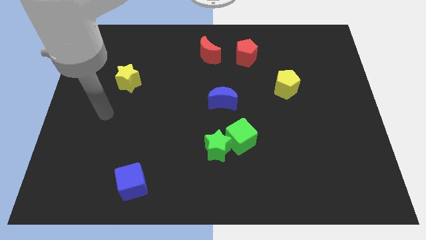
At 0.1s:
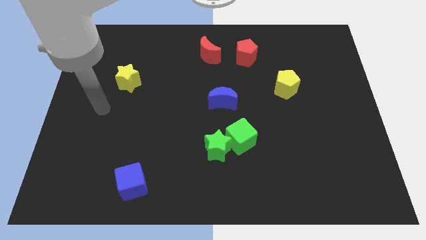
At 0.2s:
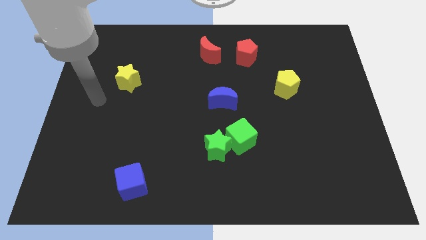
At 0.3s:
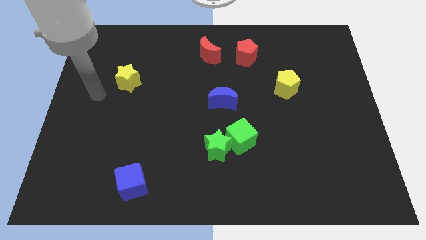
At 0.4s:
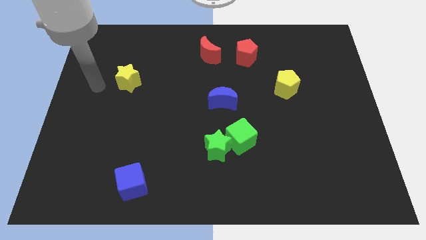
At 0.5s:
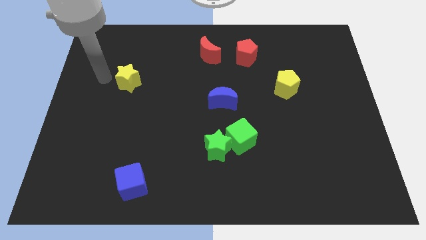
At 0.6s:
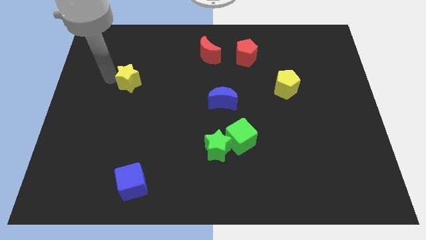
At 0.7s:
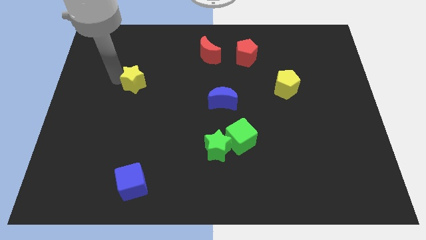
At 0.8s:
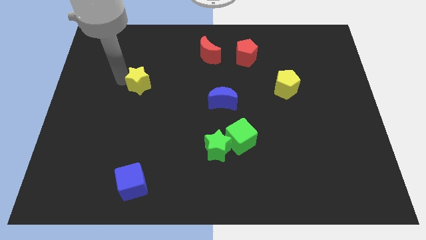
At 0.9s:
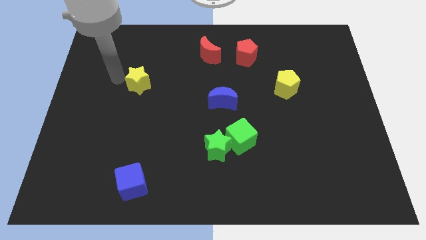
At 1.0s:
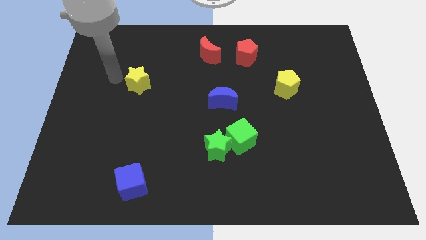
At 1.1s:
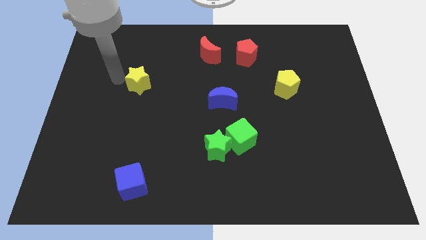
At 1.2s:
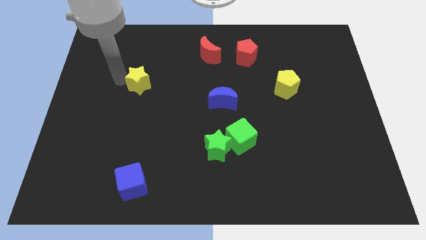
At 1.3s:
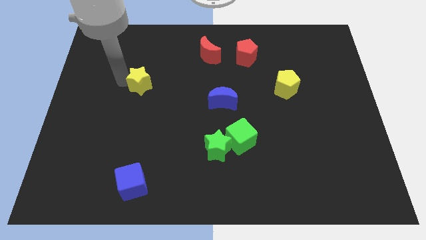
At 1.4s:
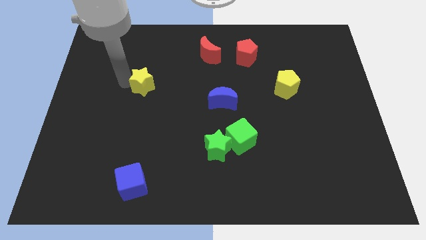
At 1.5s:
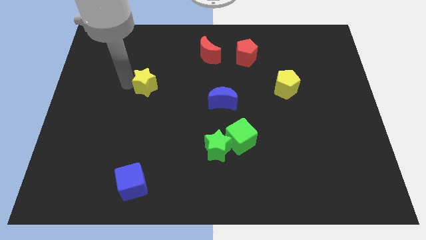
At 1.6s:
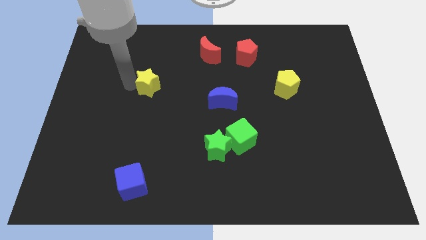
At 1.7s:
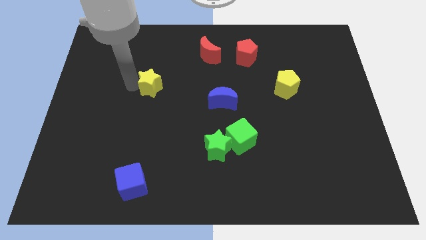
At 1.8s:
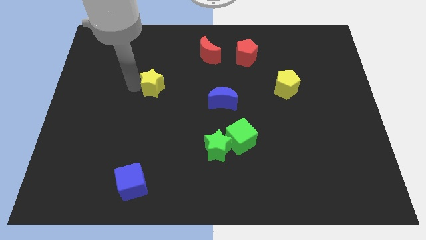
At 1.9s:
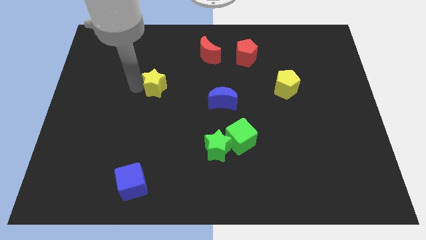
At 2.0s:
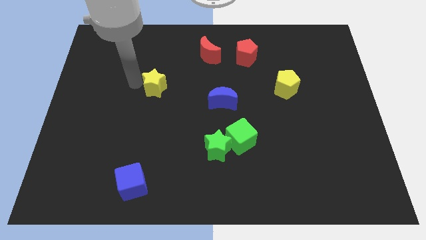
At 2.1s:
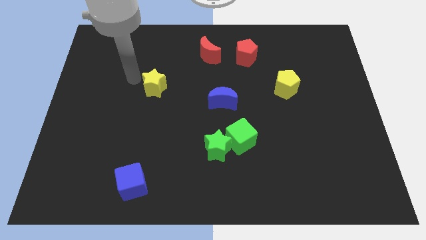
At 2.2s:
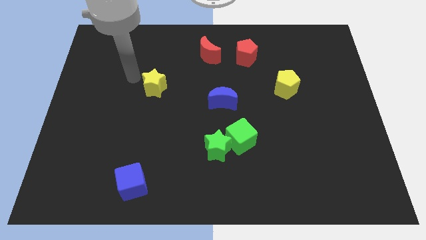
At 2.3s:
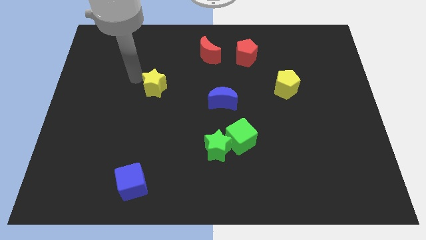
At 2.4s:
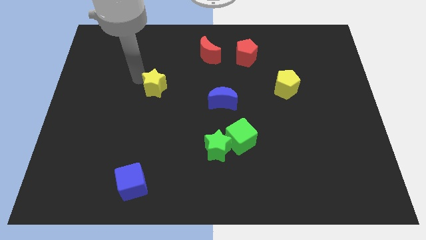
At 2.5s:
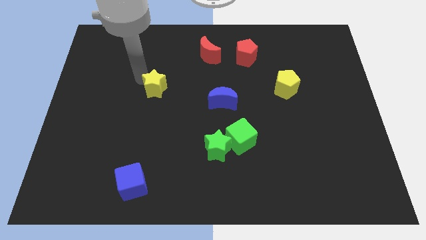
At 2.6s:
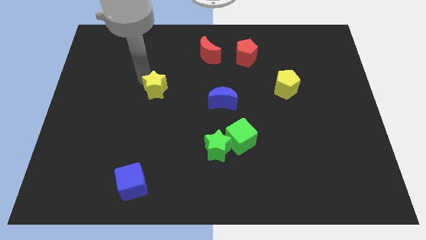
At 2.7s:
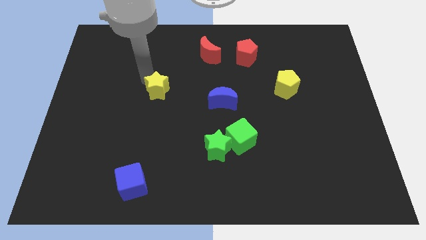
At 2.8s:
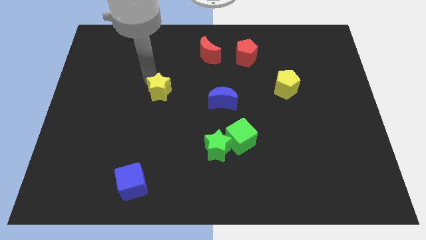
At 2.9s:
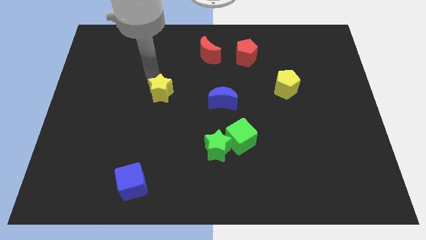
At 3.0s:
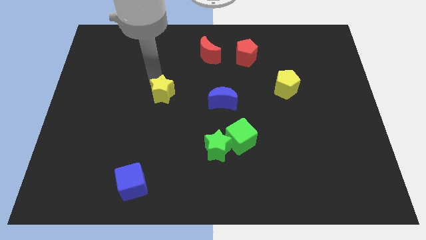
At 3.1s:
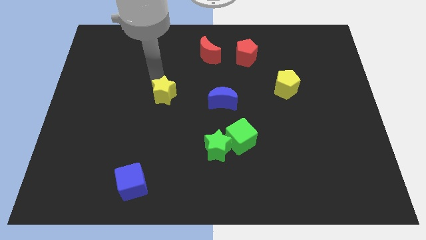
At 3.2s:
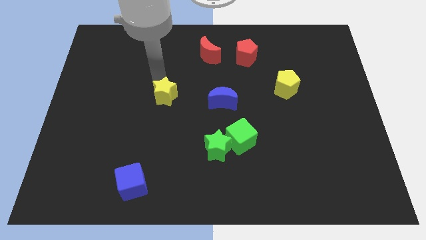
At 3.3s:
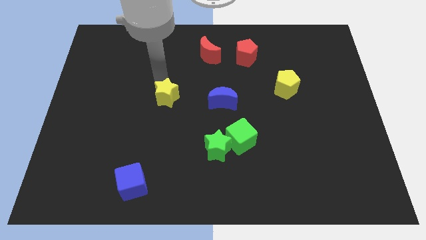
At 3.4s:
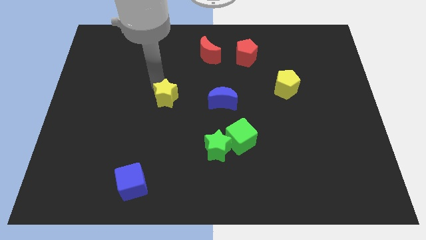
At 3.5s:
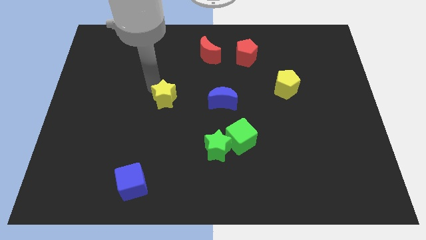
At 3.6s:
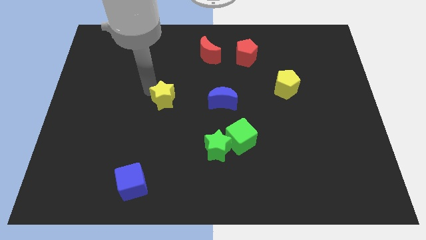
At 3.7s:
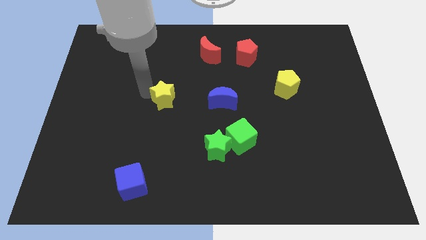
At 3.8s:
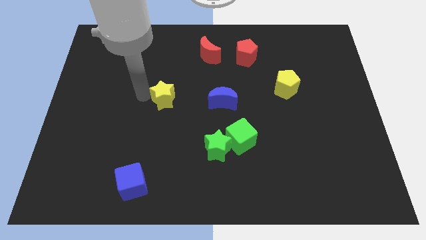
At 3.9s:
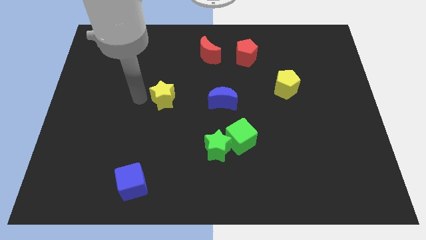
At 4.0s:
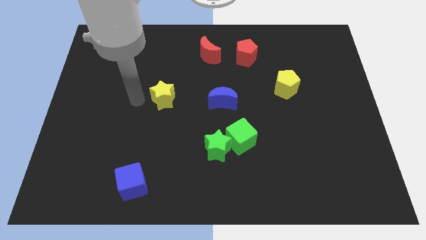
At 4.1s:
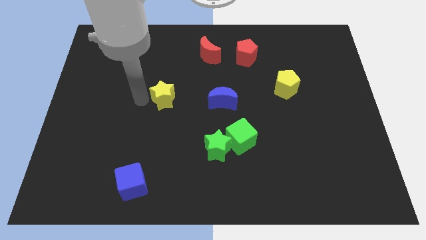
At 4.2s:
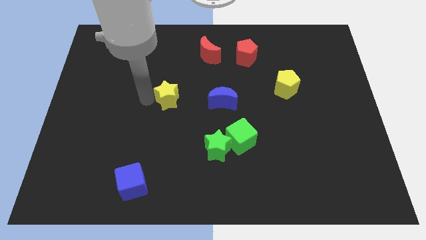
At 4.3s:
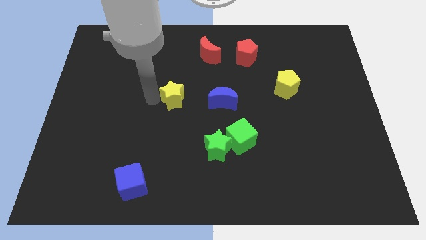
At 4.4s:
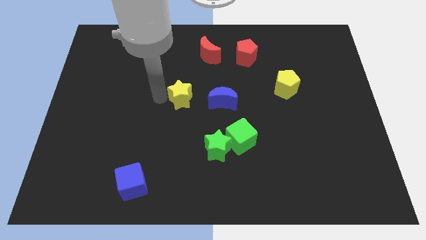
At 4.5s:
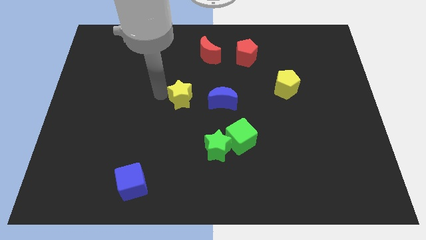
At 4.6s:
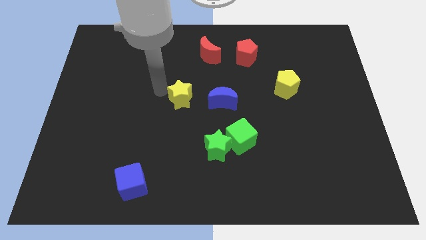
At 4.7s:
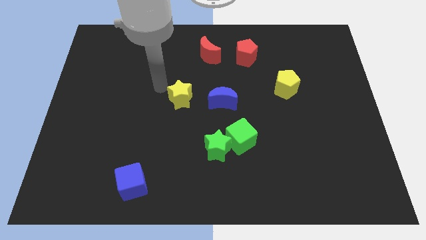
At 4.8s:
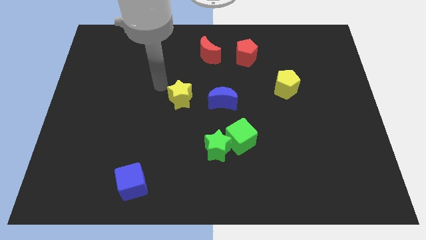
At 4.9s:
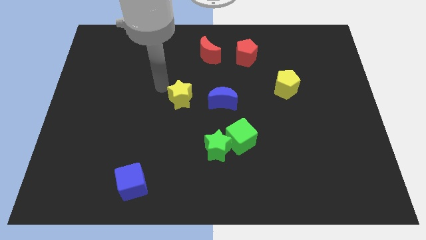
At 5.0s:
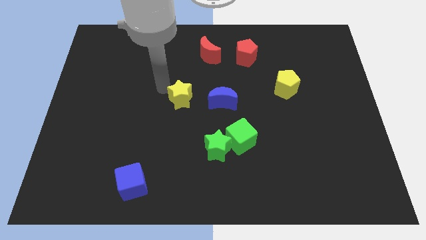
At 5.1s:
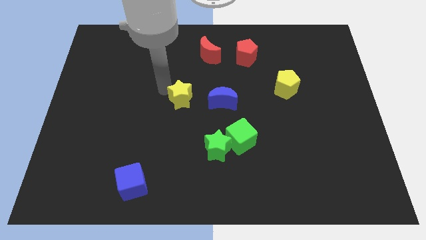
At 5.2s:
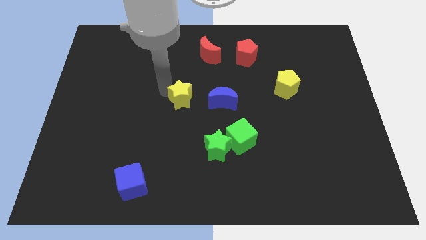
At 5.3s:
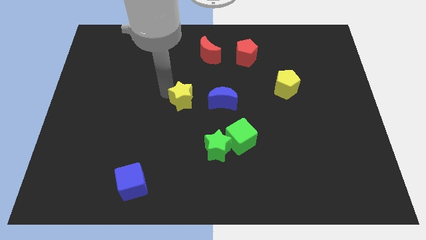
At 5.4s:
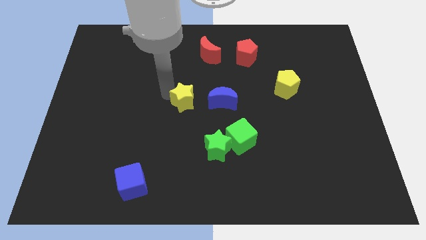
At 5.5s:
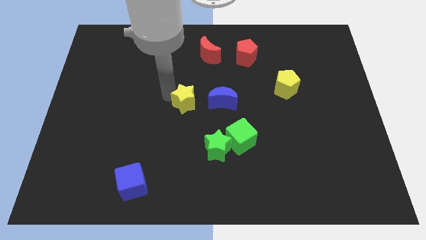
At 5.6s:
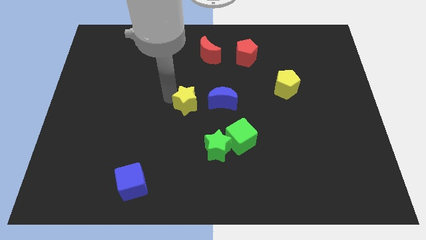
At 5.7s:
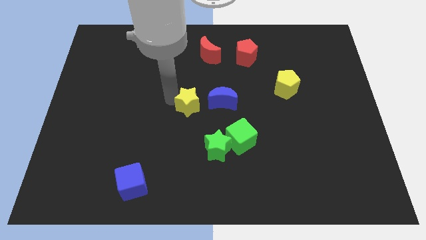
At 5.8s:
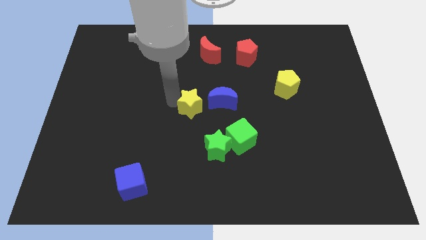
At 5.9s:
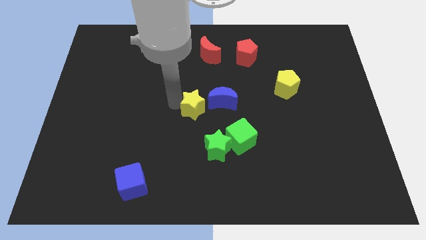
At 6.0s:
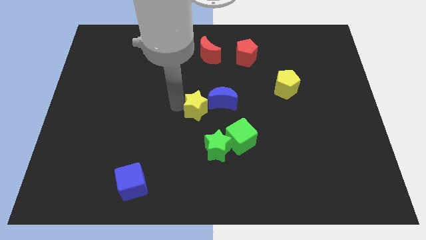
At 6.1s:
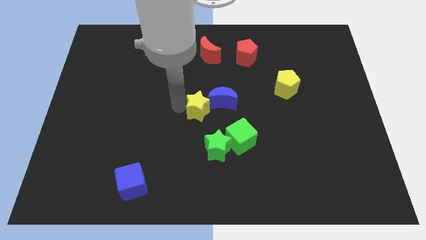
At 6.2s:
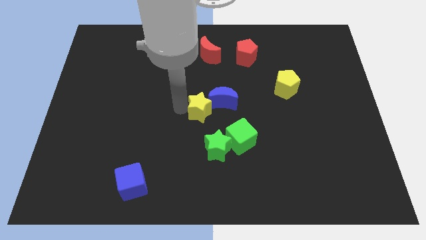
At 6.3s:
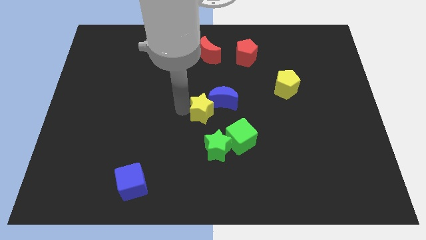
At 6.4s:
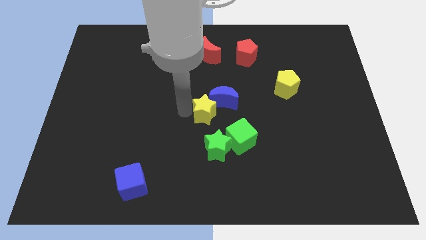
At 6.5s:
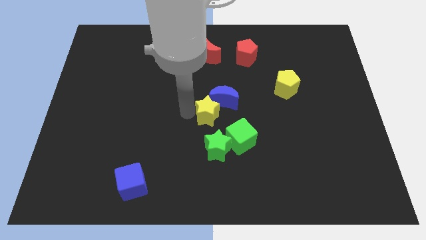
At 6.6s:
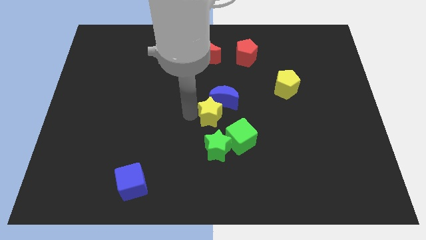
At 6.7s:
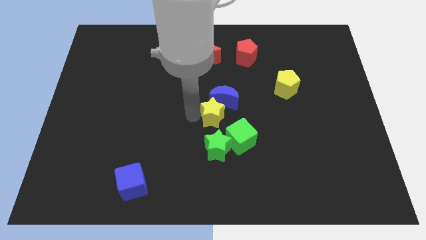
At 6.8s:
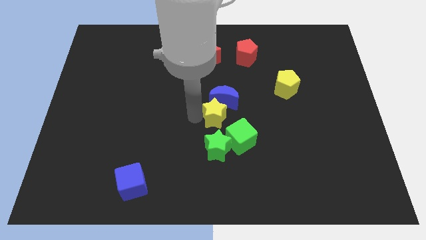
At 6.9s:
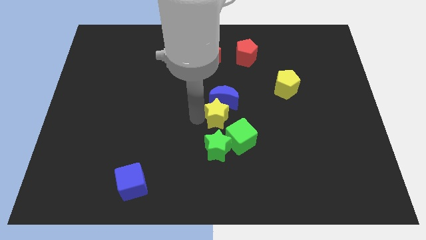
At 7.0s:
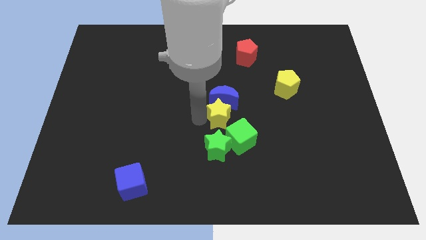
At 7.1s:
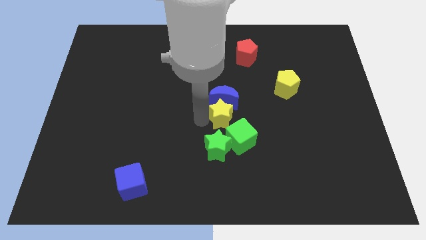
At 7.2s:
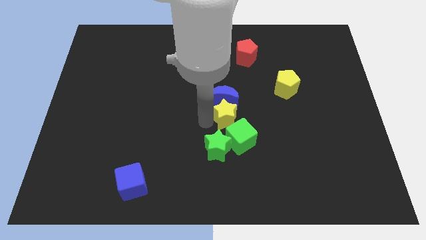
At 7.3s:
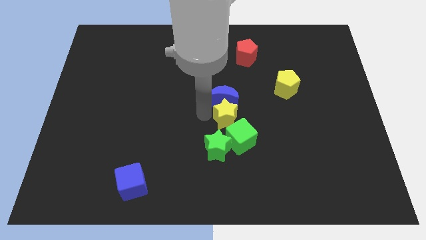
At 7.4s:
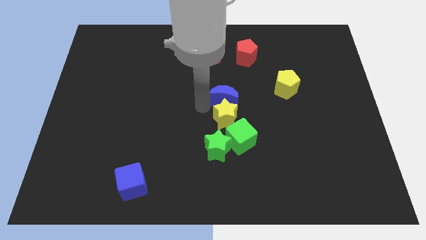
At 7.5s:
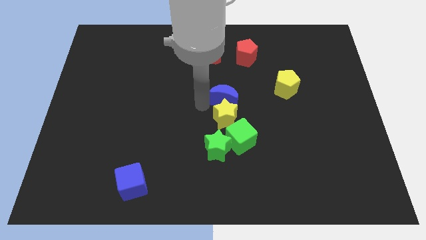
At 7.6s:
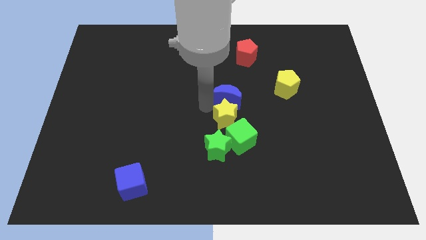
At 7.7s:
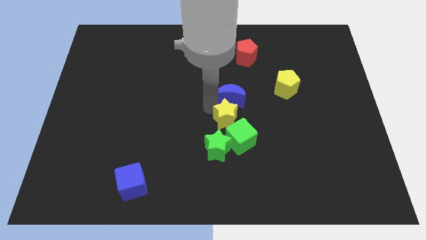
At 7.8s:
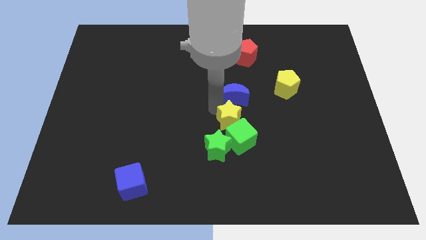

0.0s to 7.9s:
put the yellow star close to the green cube
